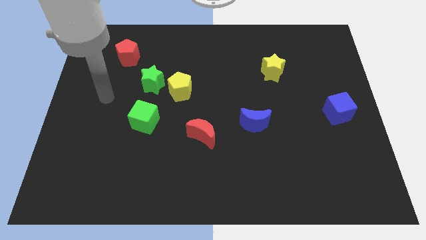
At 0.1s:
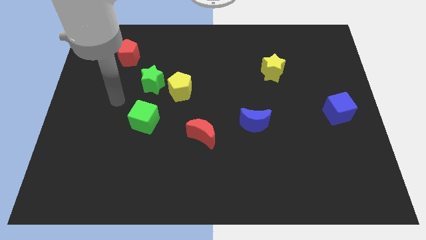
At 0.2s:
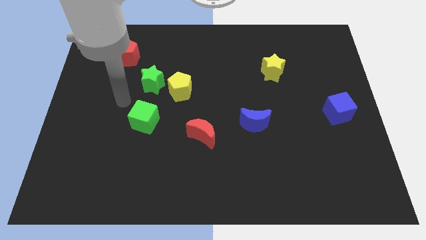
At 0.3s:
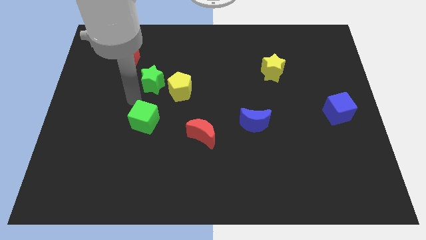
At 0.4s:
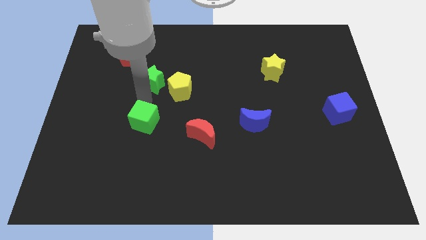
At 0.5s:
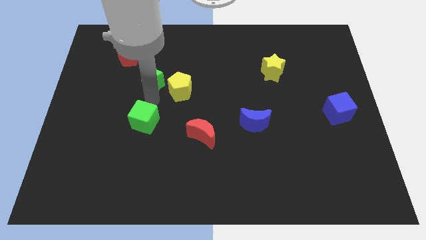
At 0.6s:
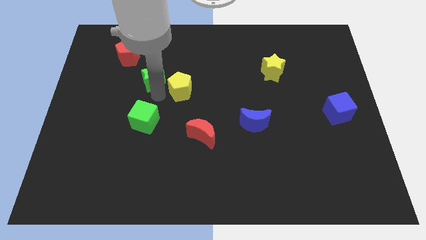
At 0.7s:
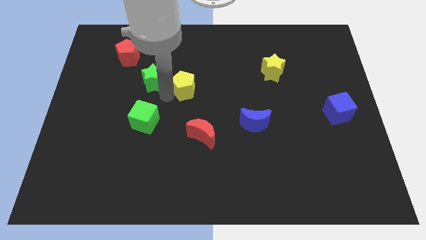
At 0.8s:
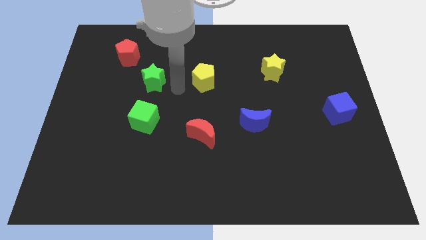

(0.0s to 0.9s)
pull the green star apart from the yellow pentagon

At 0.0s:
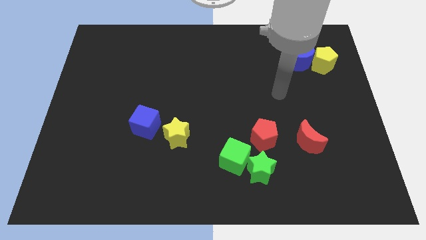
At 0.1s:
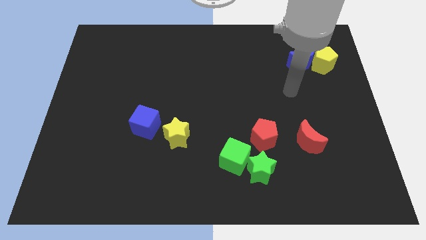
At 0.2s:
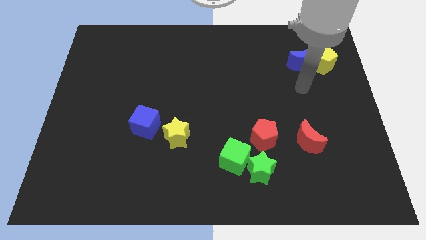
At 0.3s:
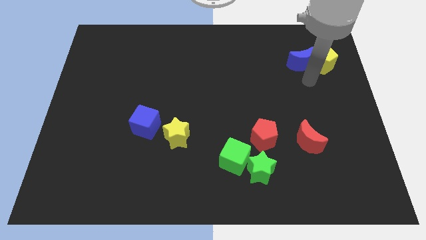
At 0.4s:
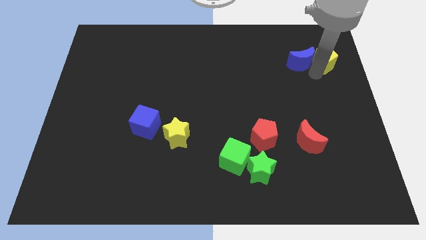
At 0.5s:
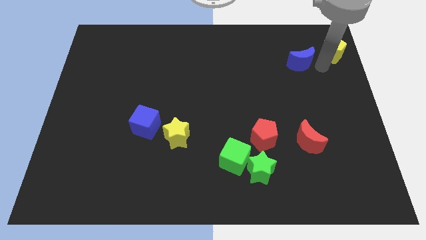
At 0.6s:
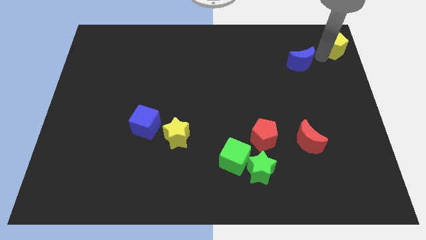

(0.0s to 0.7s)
separate the blue moon from the yellow pentagon

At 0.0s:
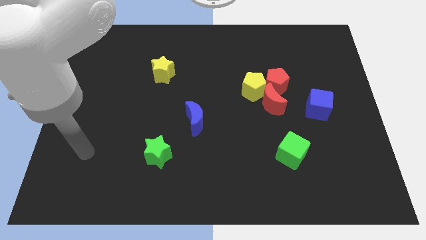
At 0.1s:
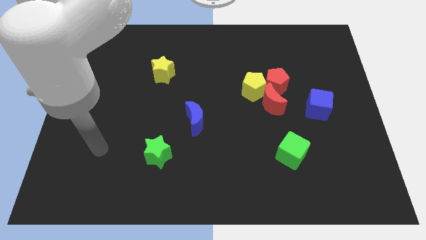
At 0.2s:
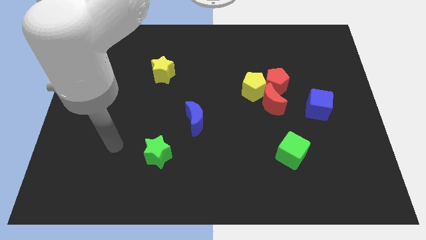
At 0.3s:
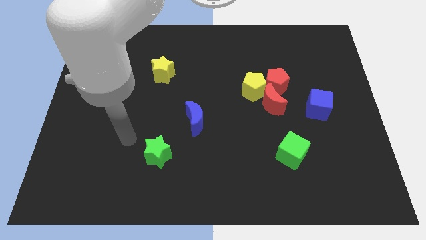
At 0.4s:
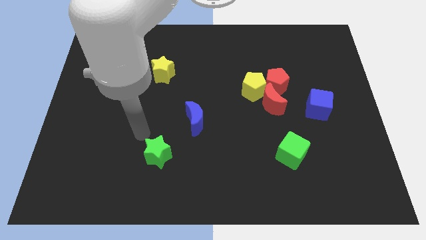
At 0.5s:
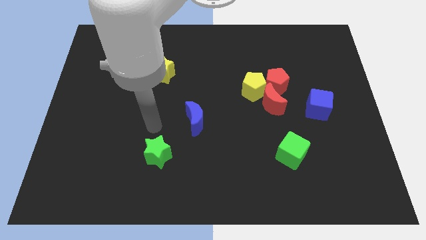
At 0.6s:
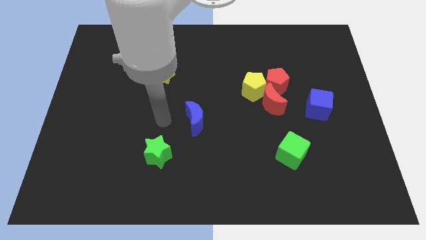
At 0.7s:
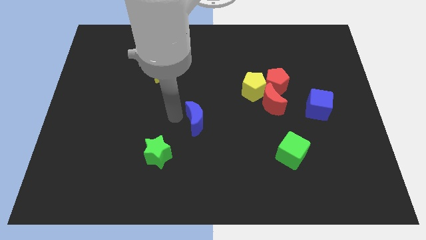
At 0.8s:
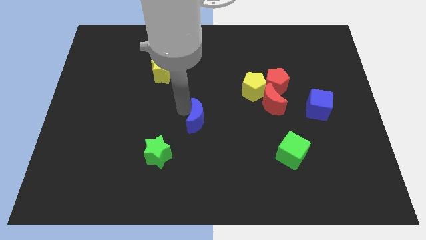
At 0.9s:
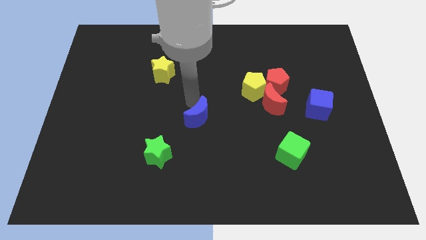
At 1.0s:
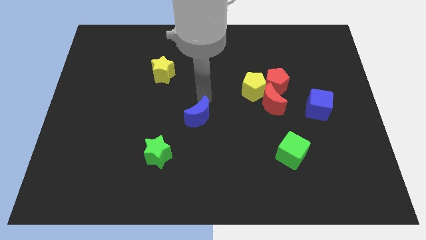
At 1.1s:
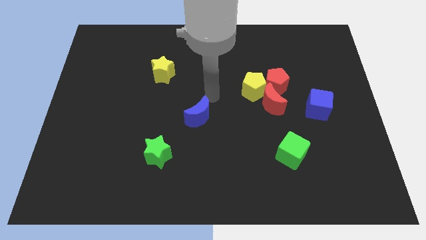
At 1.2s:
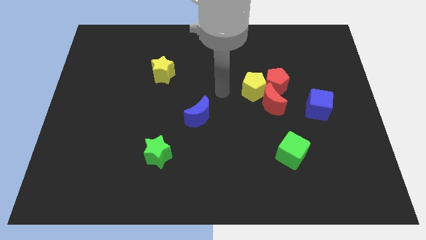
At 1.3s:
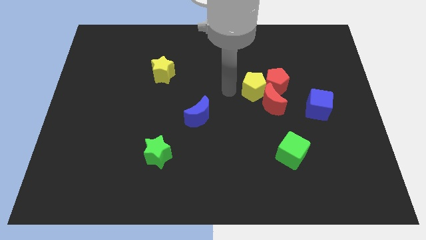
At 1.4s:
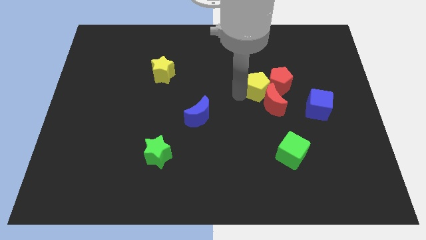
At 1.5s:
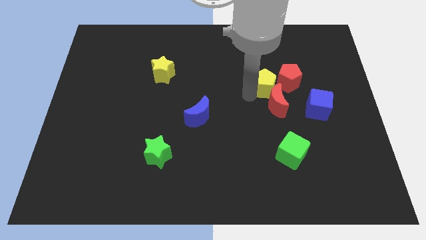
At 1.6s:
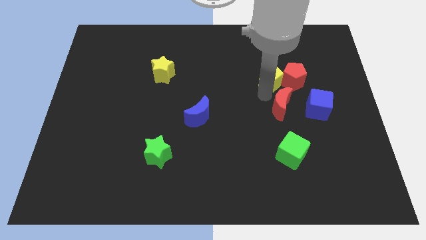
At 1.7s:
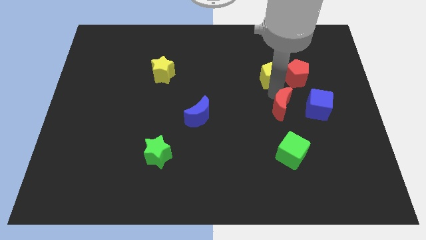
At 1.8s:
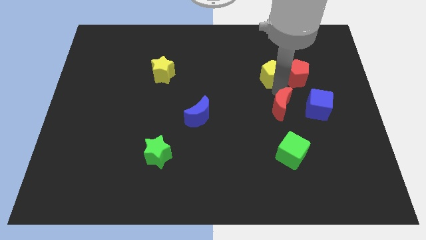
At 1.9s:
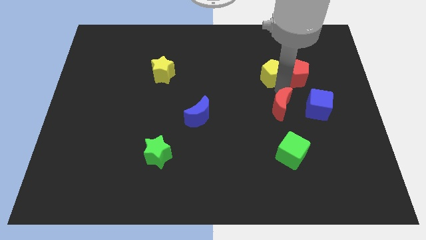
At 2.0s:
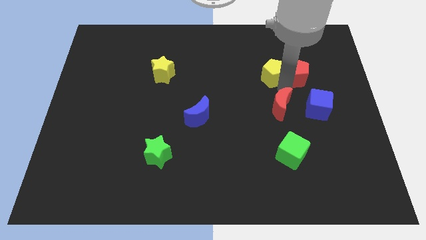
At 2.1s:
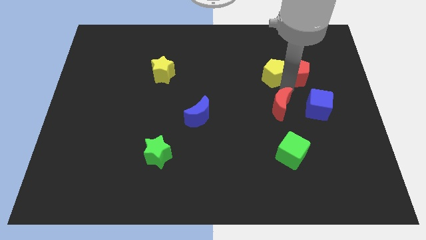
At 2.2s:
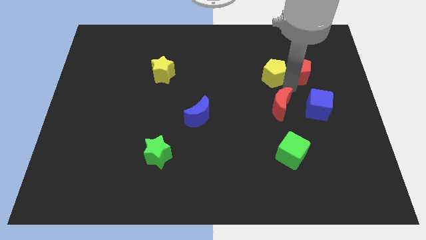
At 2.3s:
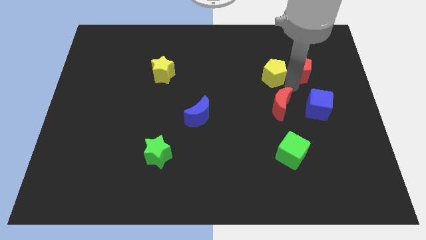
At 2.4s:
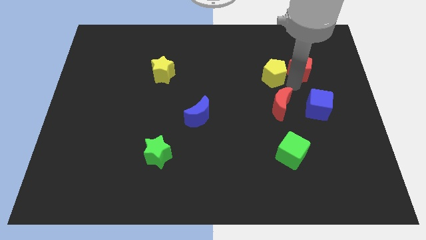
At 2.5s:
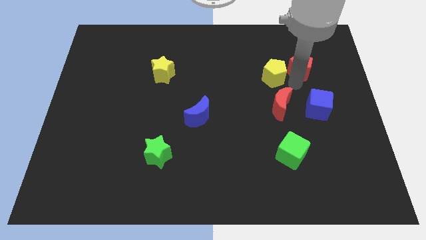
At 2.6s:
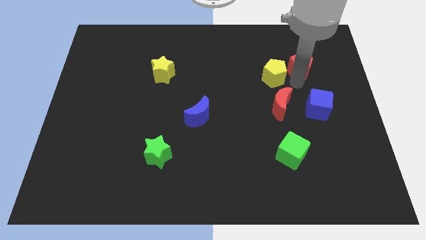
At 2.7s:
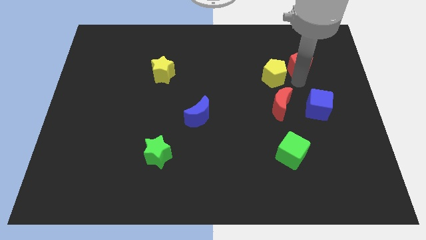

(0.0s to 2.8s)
pull the red pentagon apart from the red moon and yellow pentagon

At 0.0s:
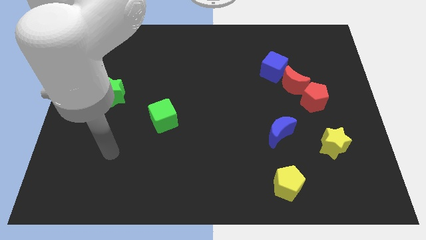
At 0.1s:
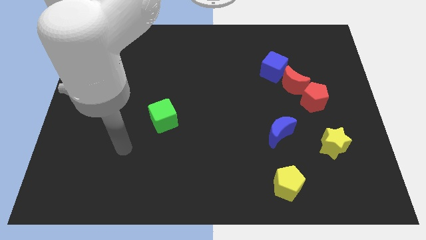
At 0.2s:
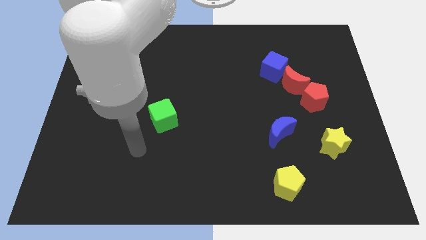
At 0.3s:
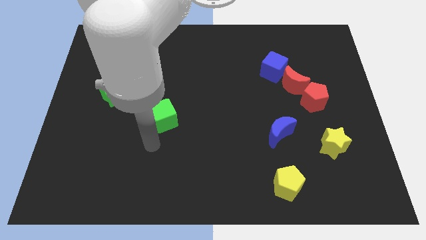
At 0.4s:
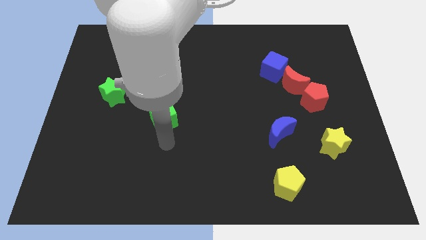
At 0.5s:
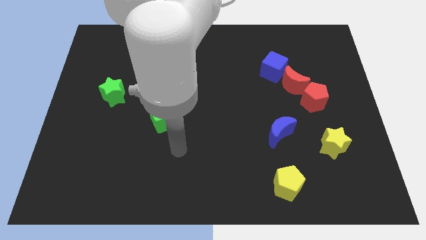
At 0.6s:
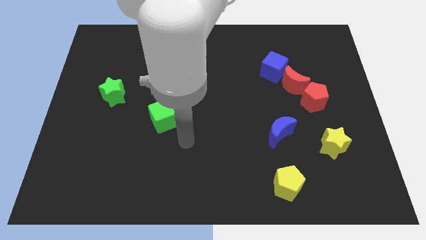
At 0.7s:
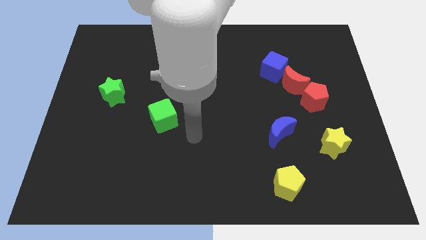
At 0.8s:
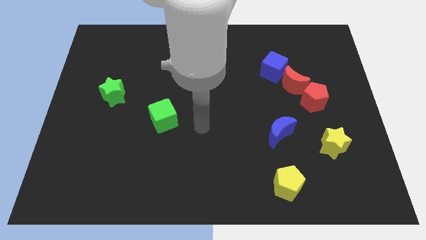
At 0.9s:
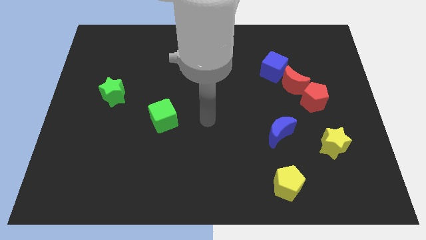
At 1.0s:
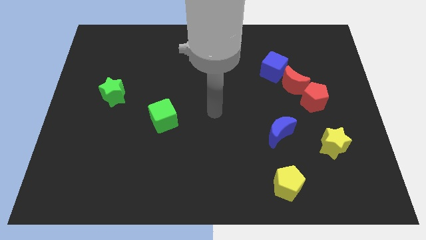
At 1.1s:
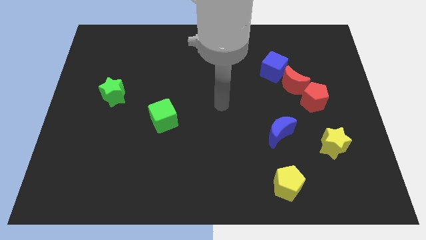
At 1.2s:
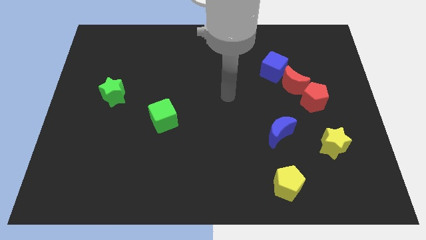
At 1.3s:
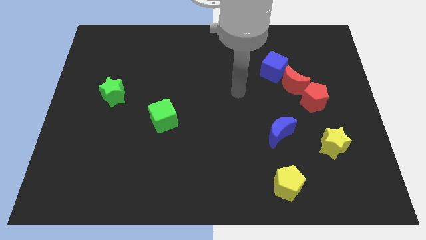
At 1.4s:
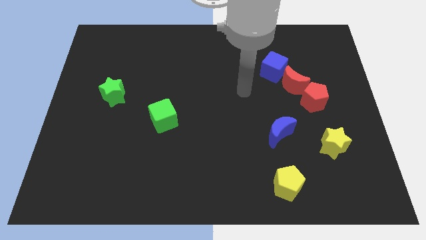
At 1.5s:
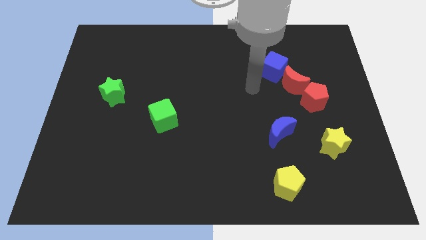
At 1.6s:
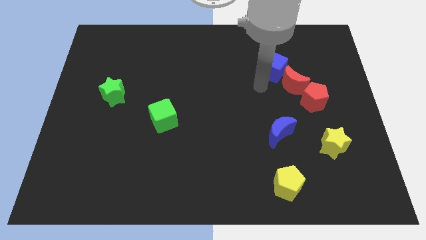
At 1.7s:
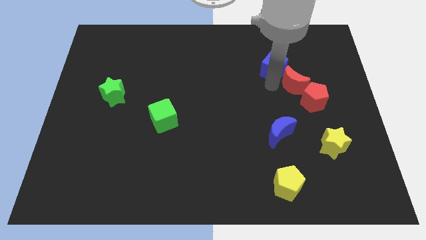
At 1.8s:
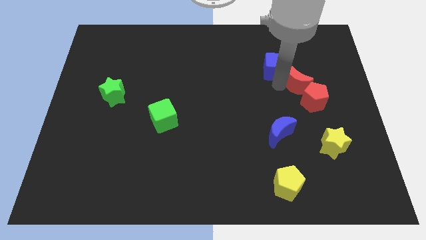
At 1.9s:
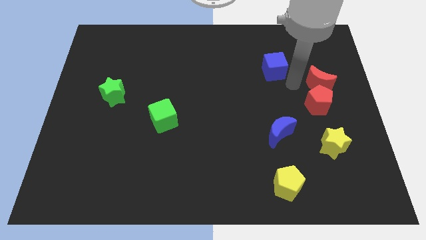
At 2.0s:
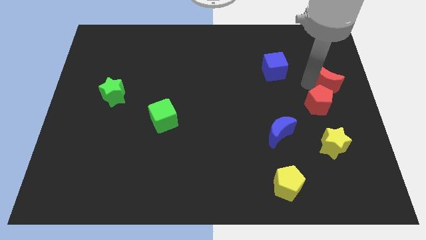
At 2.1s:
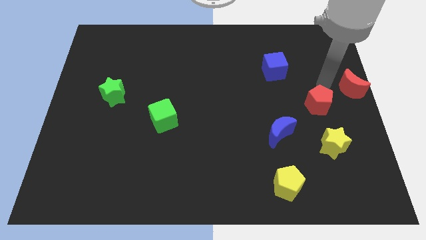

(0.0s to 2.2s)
separate the red pentagon from the red moon

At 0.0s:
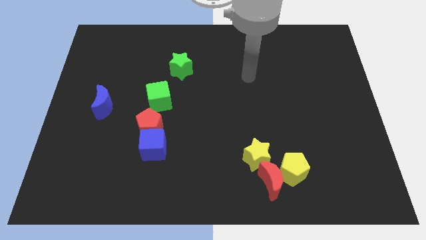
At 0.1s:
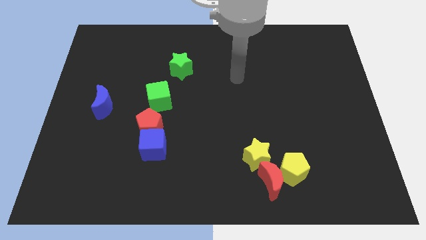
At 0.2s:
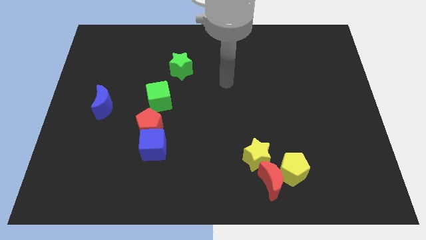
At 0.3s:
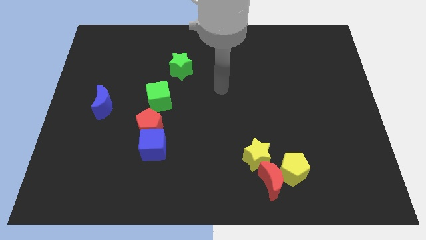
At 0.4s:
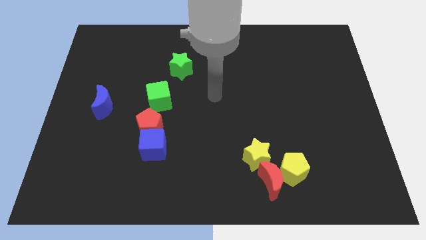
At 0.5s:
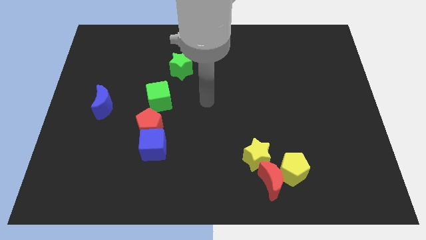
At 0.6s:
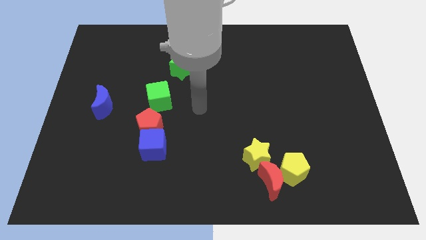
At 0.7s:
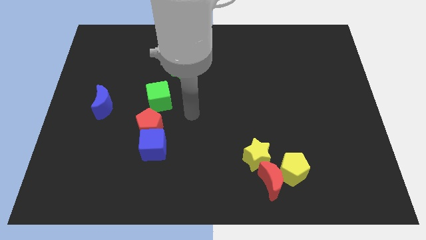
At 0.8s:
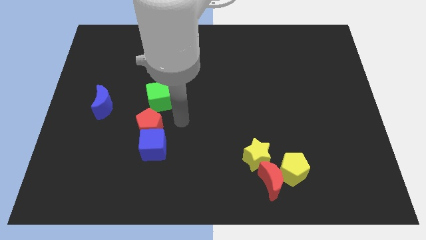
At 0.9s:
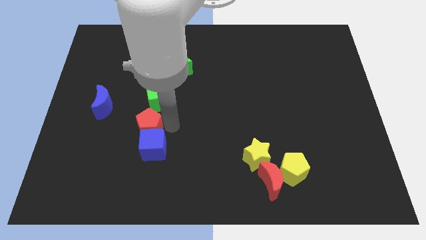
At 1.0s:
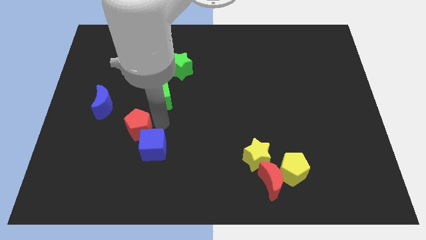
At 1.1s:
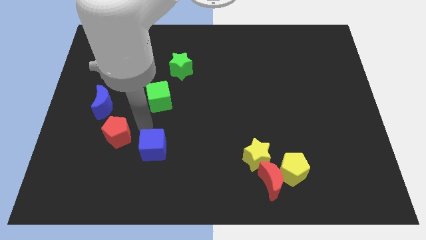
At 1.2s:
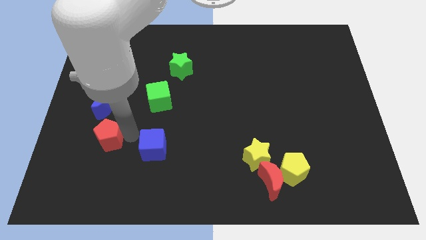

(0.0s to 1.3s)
pull the blue cube apart from the red pentagon

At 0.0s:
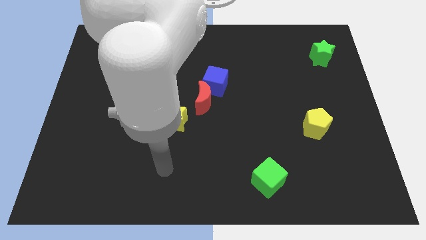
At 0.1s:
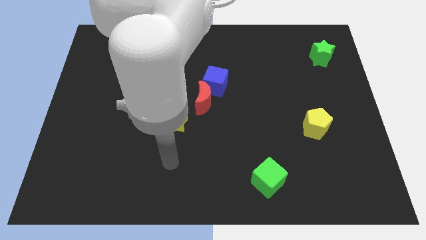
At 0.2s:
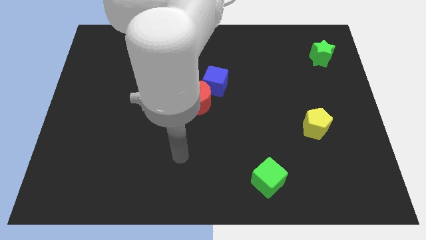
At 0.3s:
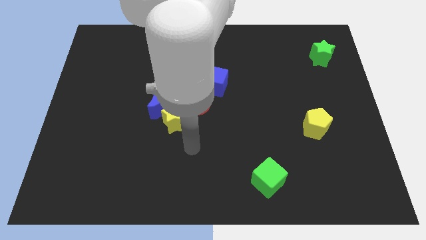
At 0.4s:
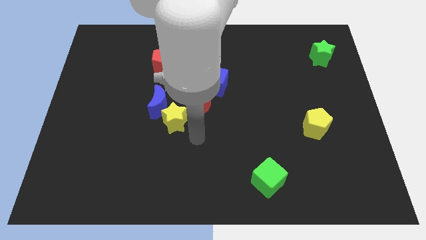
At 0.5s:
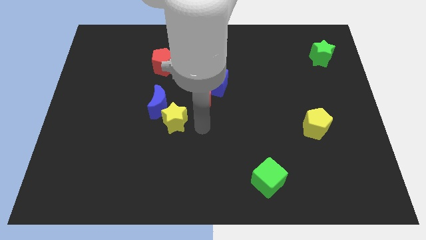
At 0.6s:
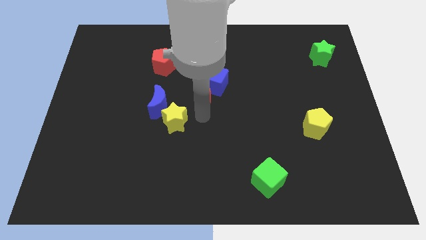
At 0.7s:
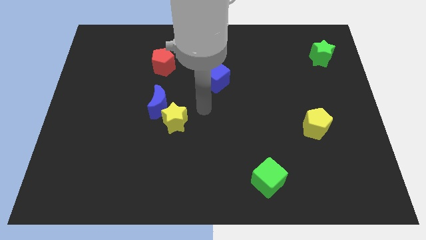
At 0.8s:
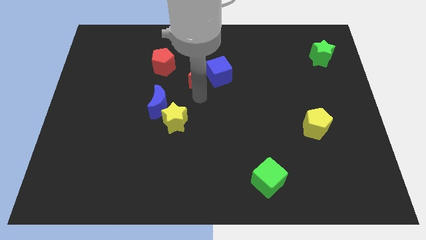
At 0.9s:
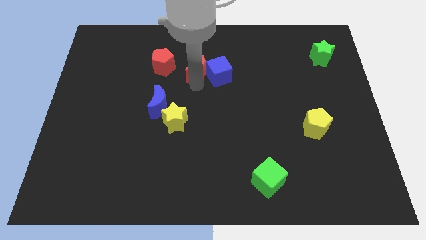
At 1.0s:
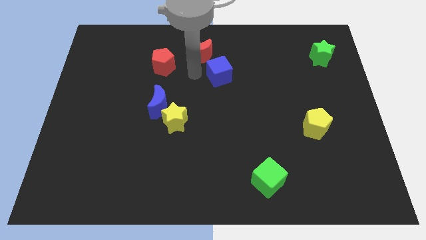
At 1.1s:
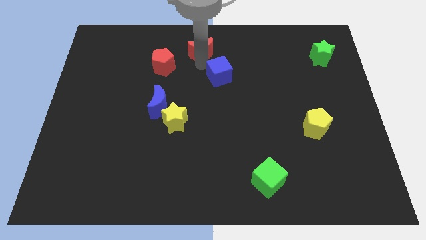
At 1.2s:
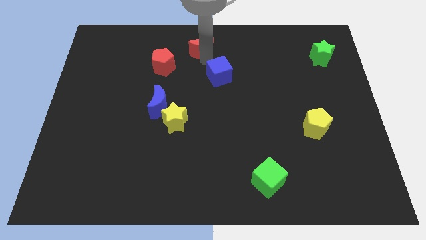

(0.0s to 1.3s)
separate the blue cube from the red moon

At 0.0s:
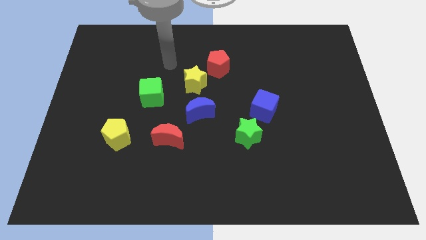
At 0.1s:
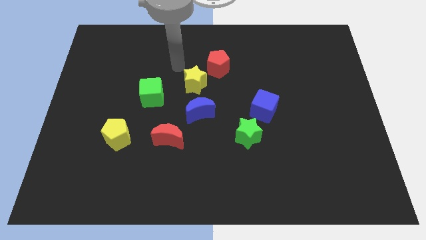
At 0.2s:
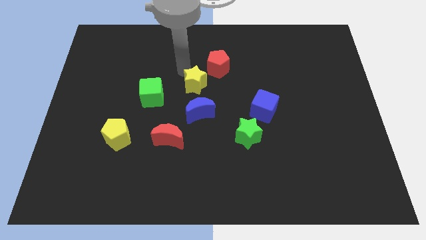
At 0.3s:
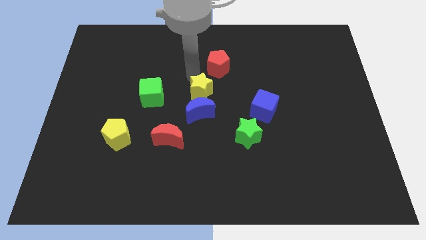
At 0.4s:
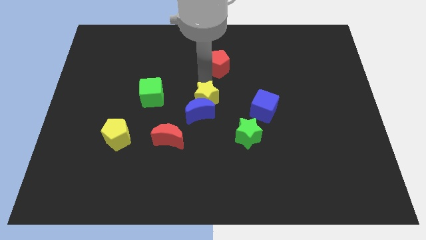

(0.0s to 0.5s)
move the red pentagon away from the yellow star
